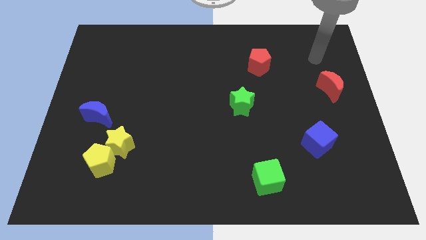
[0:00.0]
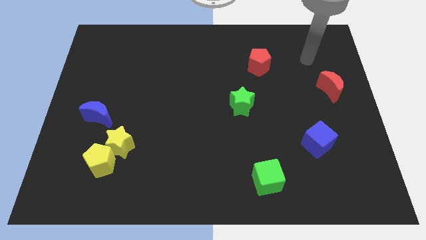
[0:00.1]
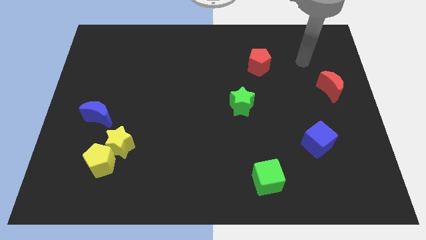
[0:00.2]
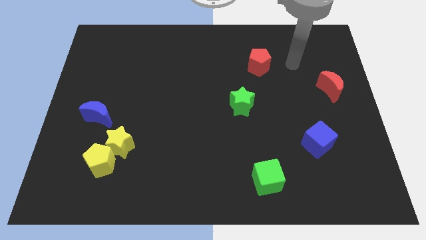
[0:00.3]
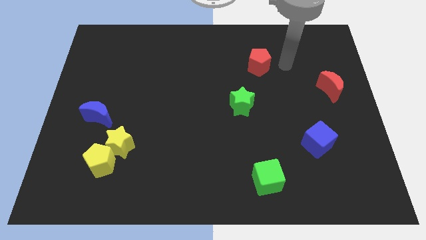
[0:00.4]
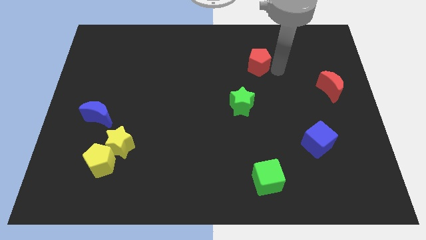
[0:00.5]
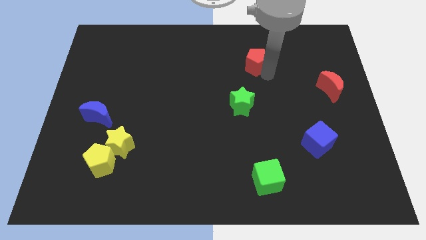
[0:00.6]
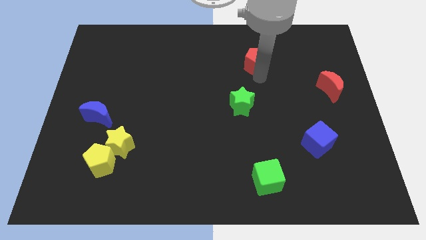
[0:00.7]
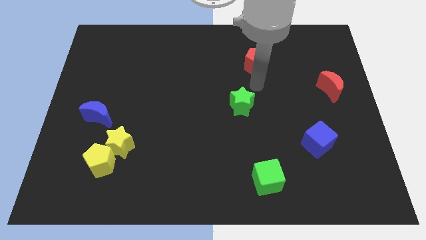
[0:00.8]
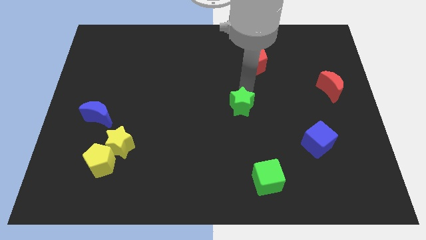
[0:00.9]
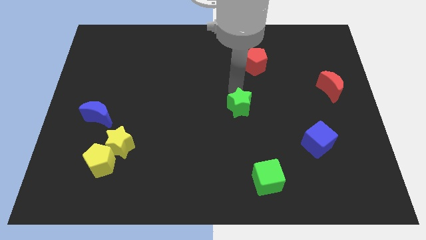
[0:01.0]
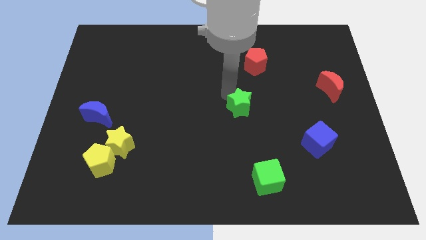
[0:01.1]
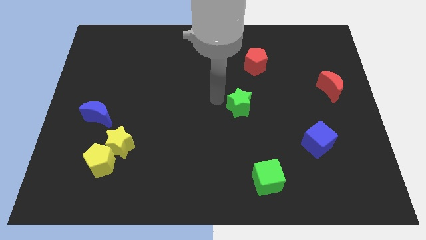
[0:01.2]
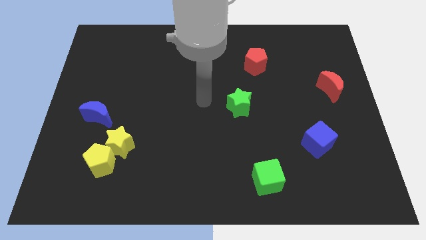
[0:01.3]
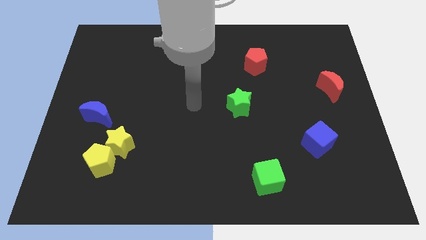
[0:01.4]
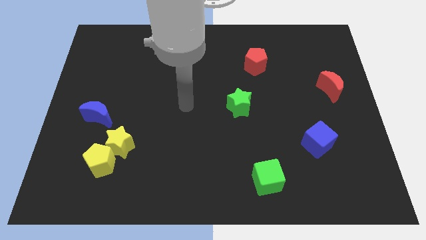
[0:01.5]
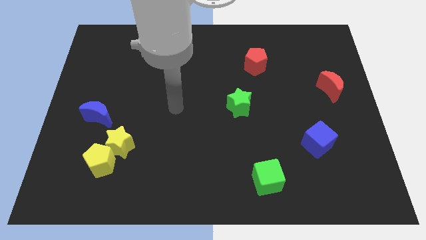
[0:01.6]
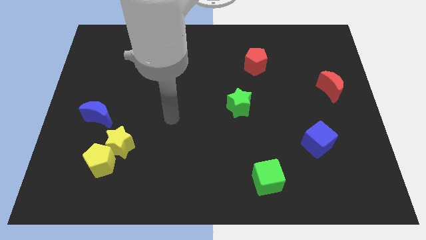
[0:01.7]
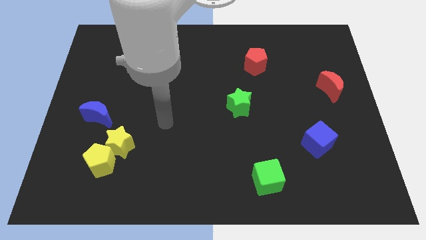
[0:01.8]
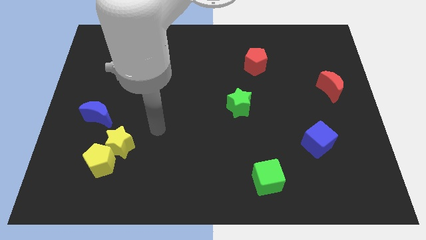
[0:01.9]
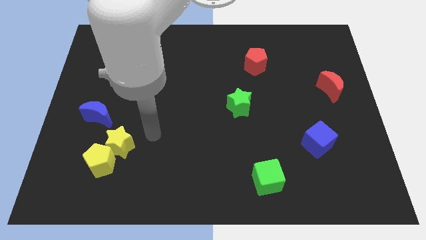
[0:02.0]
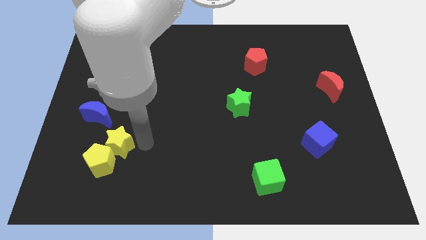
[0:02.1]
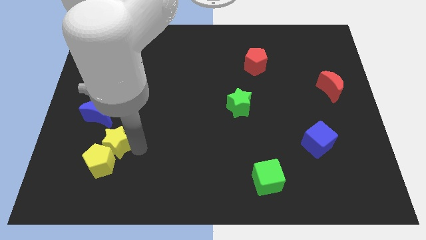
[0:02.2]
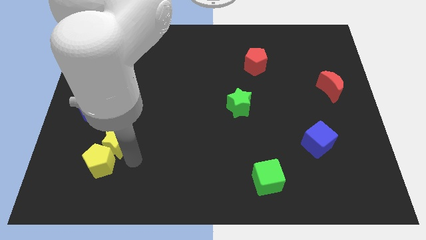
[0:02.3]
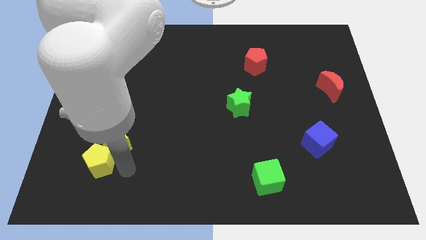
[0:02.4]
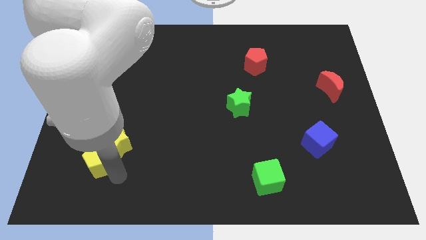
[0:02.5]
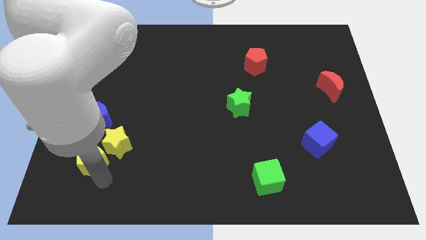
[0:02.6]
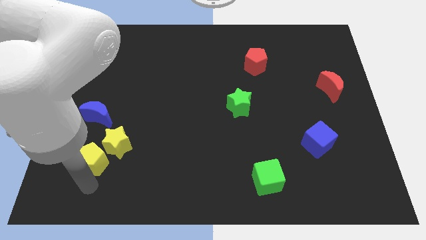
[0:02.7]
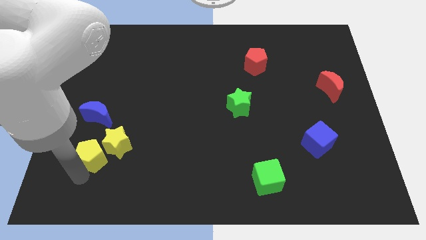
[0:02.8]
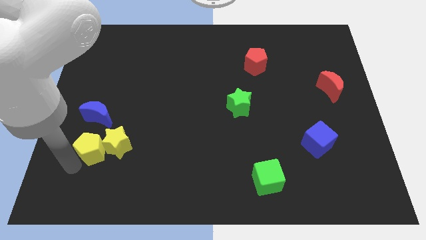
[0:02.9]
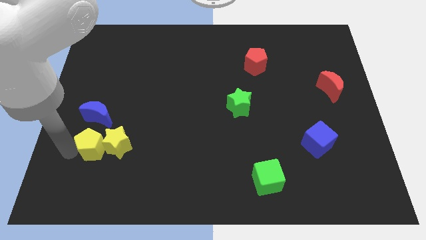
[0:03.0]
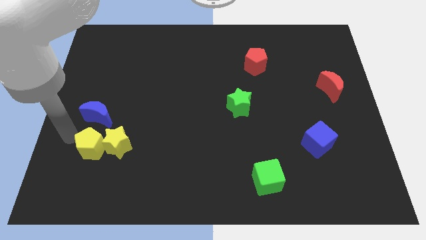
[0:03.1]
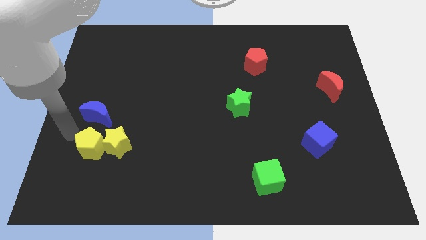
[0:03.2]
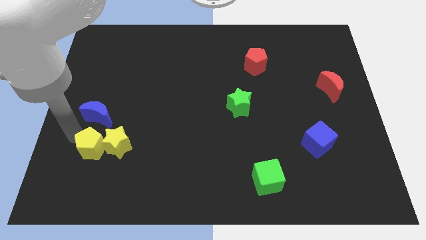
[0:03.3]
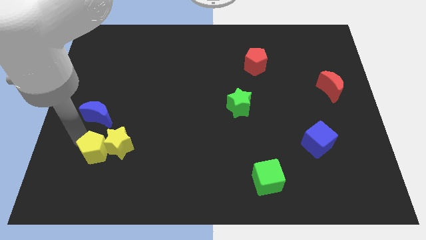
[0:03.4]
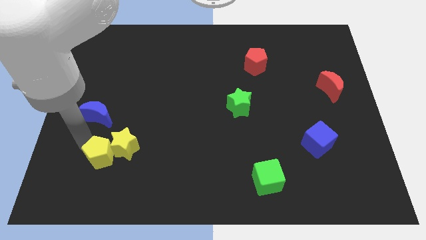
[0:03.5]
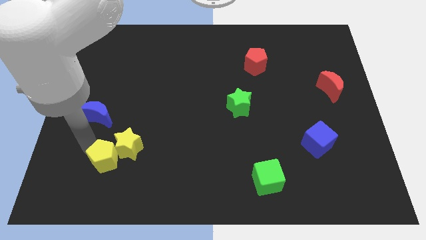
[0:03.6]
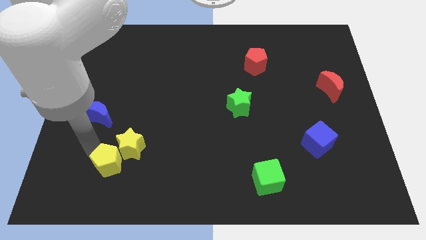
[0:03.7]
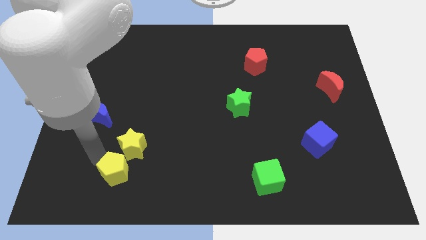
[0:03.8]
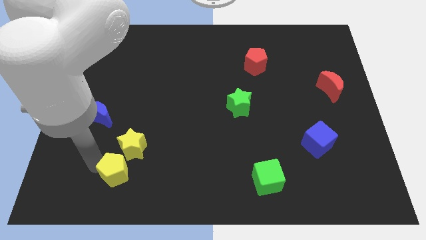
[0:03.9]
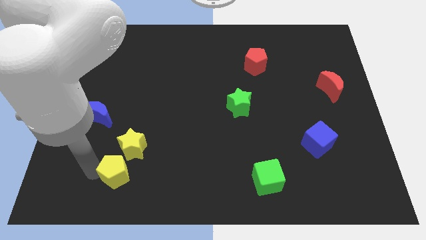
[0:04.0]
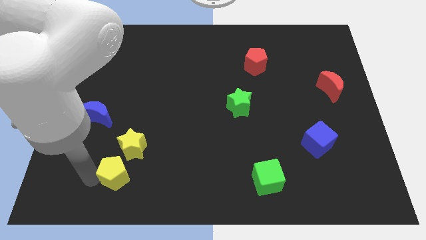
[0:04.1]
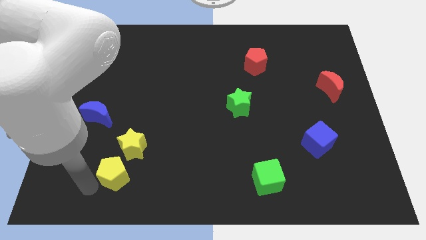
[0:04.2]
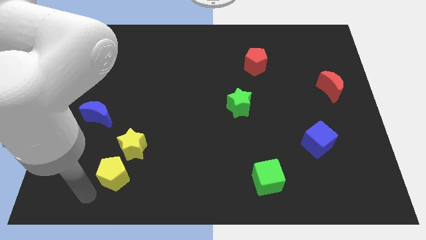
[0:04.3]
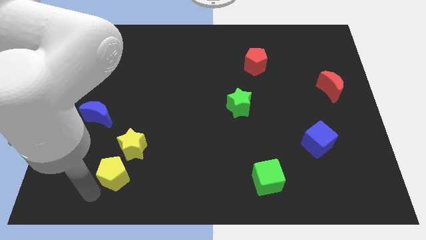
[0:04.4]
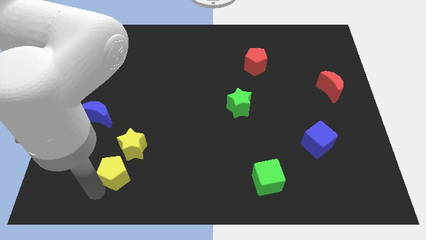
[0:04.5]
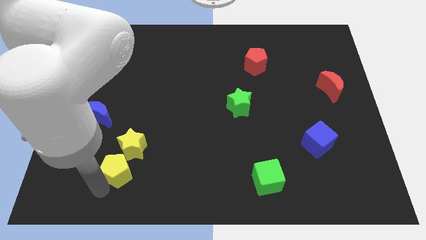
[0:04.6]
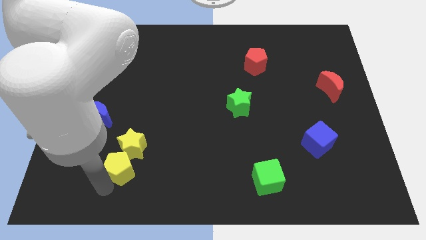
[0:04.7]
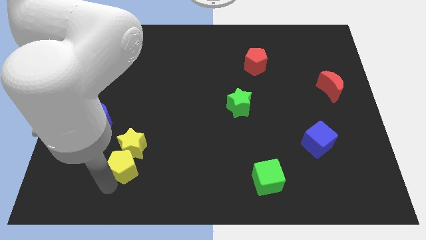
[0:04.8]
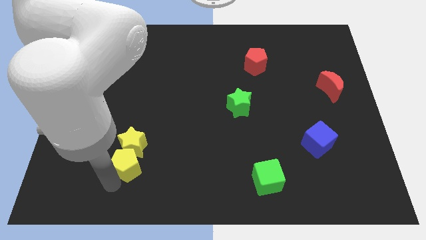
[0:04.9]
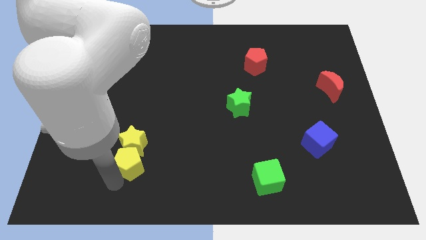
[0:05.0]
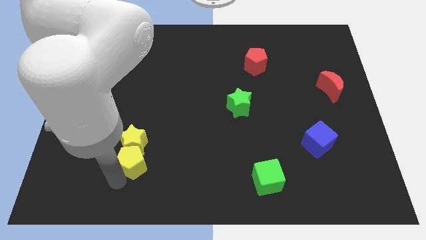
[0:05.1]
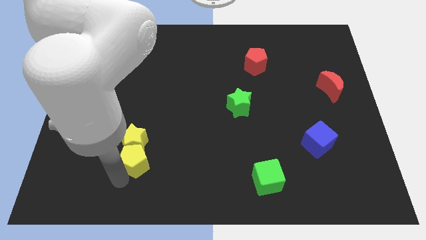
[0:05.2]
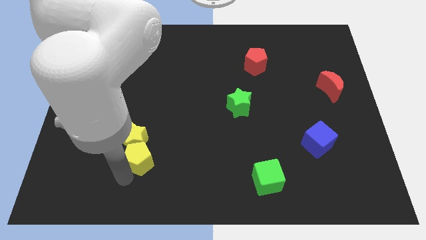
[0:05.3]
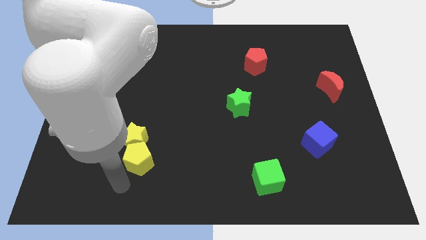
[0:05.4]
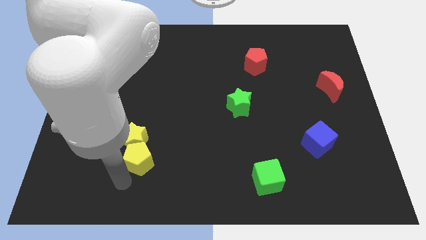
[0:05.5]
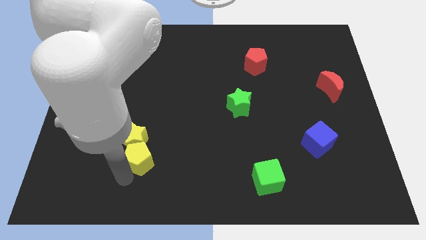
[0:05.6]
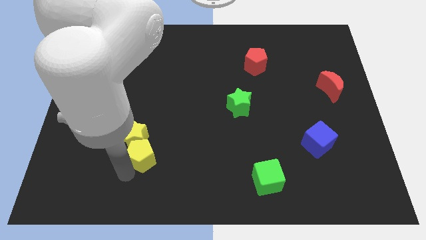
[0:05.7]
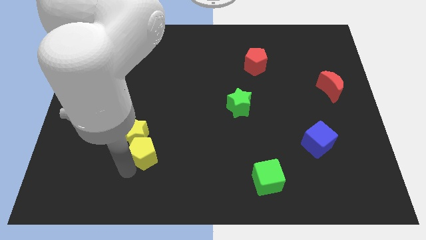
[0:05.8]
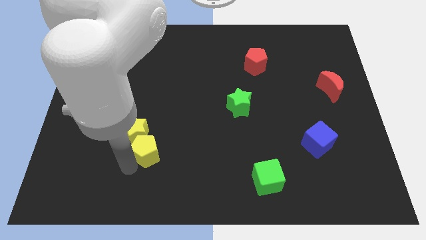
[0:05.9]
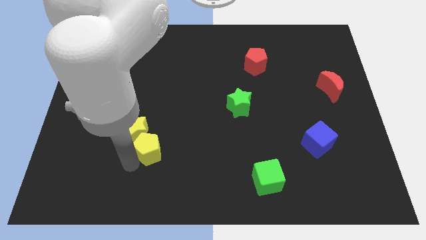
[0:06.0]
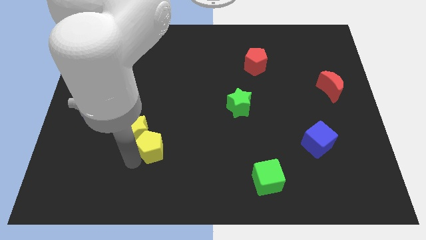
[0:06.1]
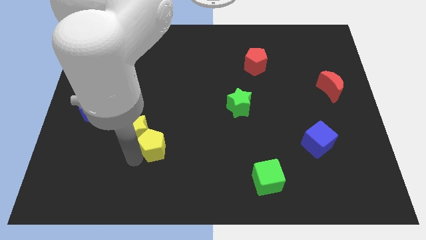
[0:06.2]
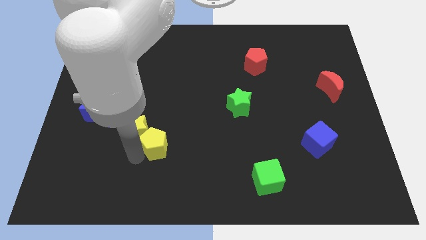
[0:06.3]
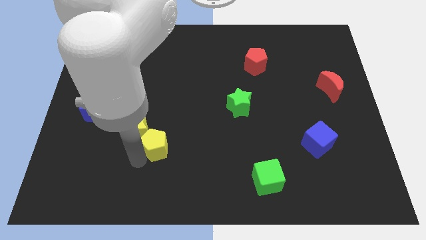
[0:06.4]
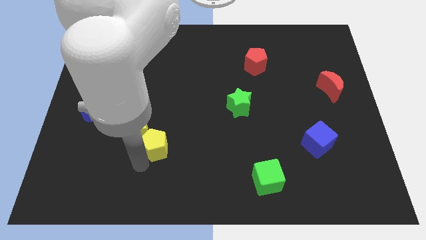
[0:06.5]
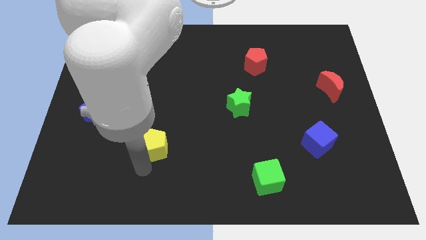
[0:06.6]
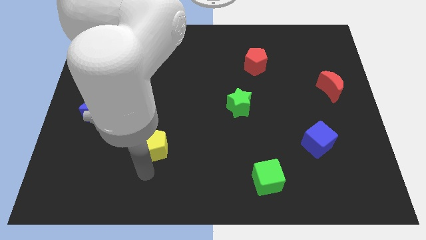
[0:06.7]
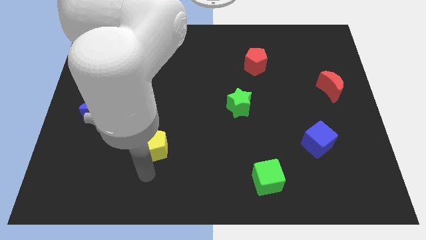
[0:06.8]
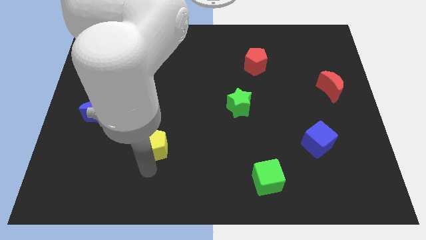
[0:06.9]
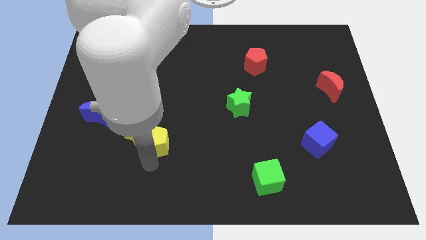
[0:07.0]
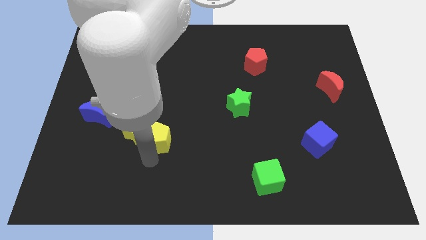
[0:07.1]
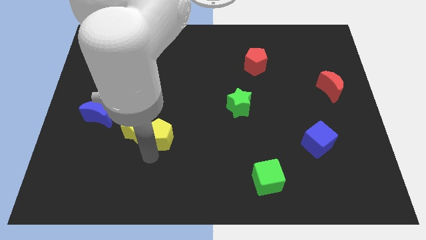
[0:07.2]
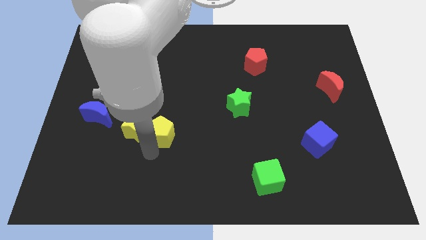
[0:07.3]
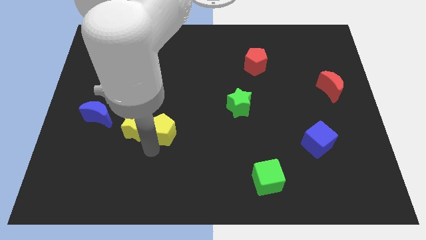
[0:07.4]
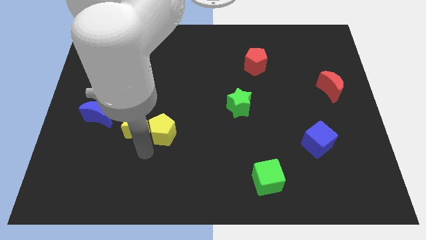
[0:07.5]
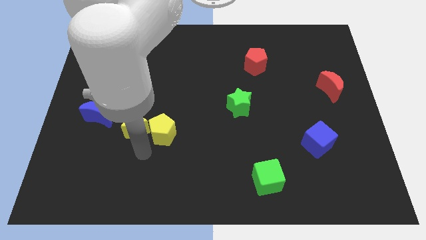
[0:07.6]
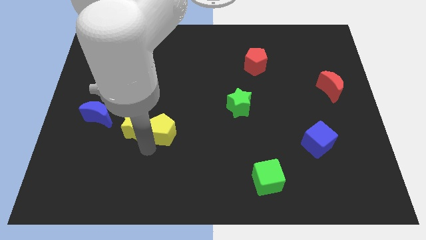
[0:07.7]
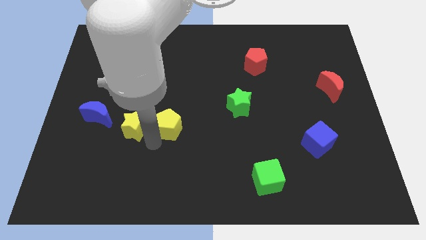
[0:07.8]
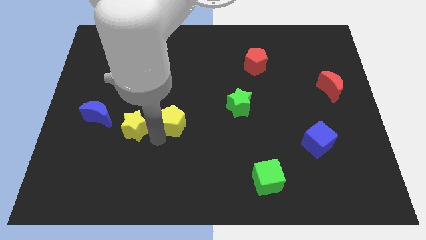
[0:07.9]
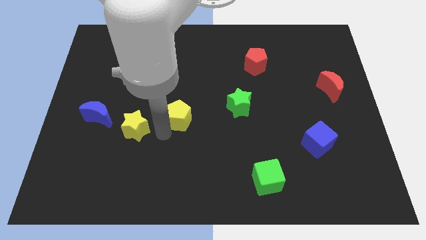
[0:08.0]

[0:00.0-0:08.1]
slide the yellow pentagon to the left side of the green star
